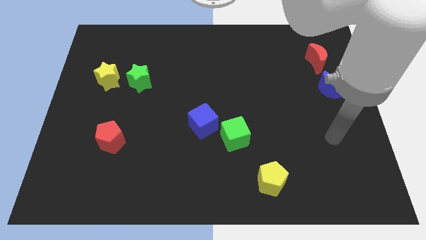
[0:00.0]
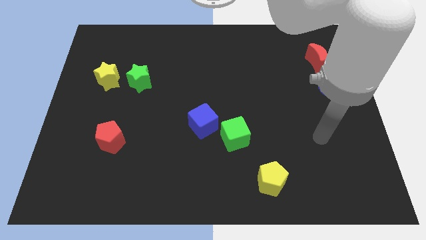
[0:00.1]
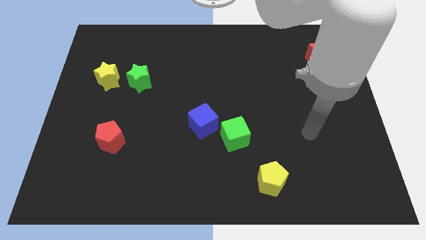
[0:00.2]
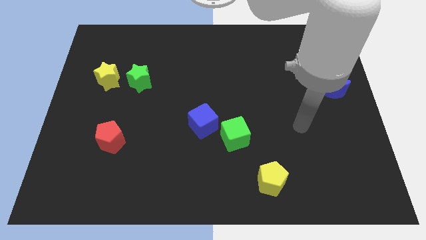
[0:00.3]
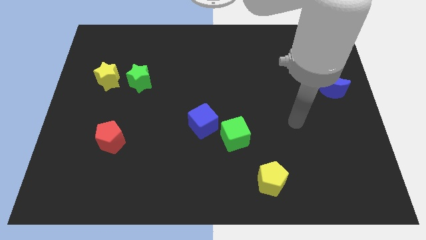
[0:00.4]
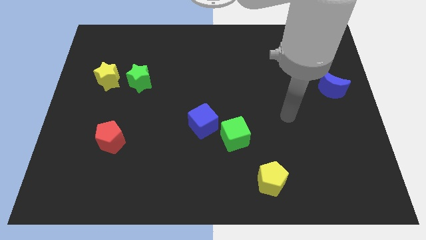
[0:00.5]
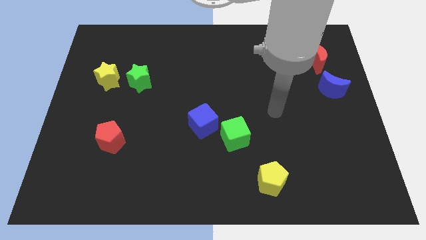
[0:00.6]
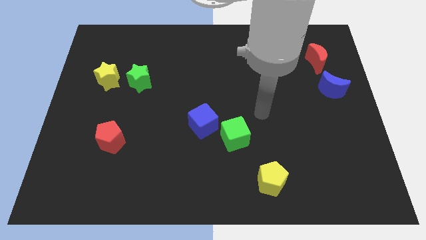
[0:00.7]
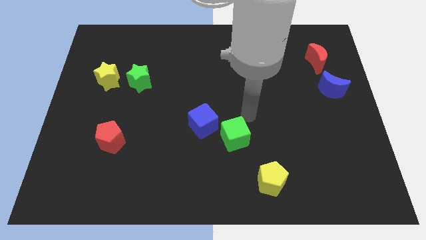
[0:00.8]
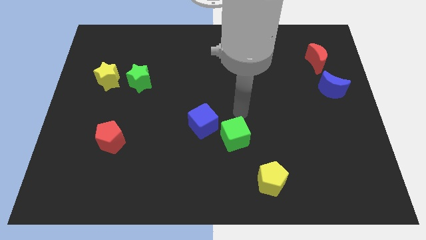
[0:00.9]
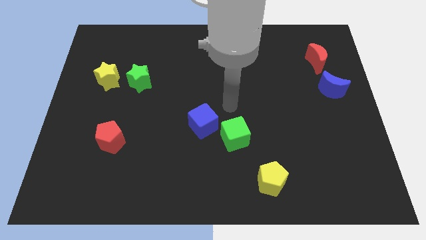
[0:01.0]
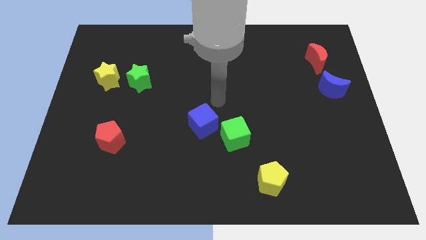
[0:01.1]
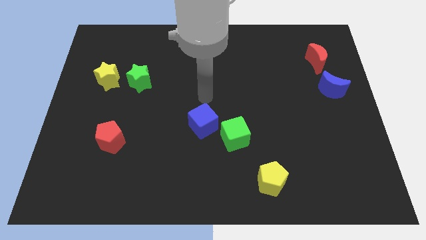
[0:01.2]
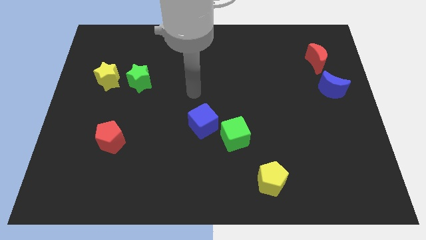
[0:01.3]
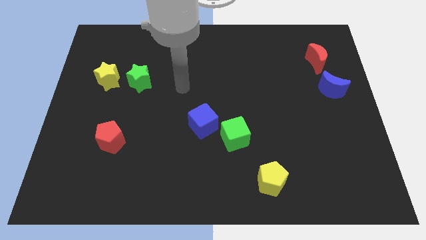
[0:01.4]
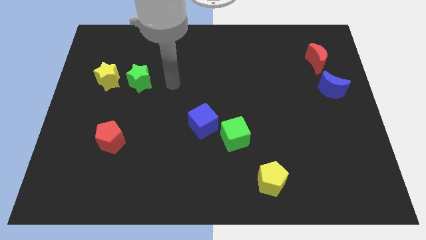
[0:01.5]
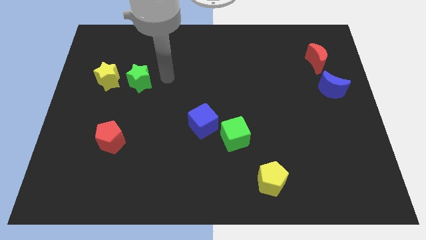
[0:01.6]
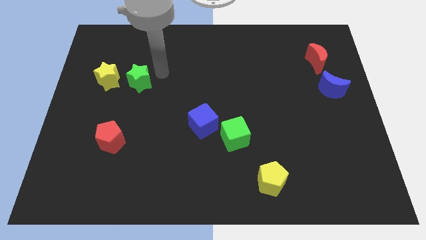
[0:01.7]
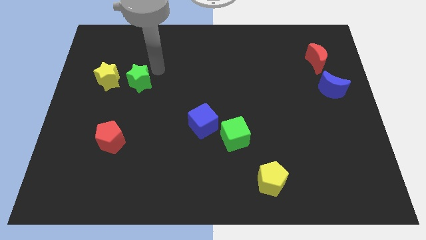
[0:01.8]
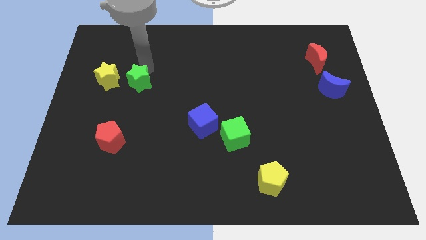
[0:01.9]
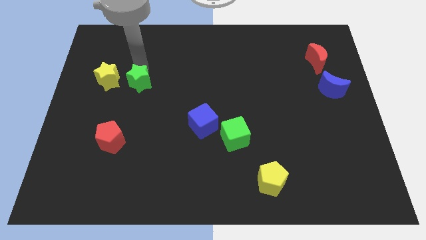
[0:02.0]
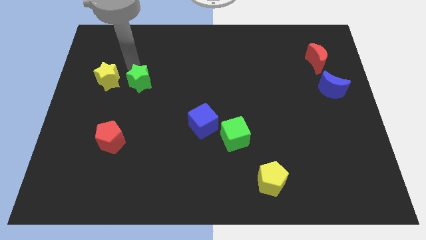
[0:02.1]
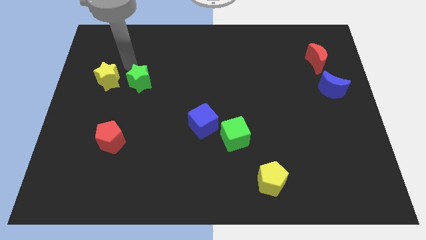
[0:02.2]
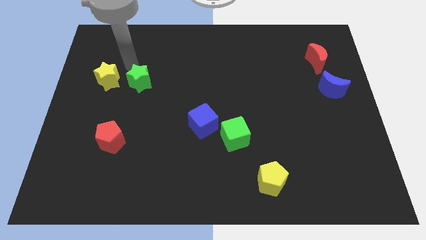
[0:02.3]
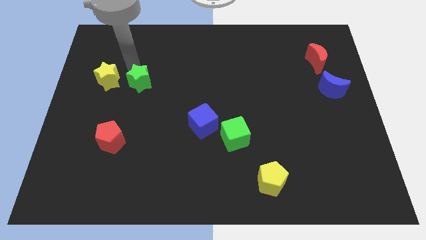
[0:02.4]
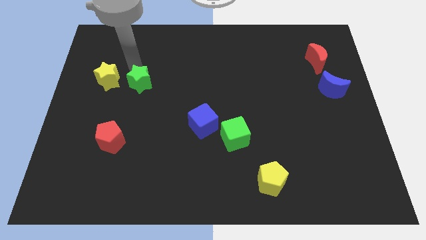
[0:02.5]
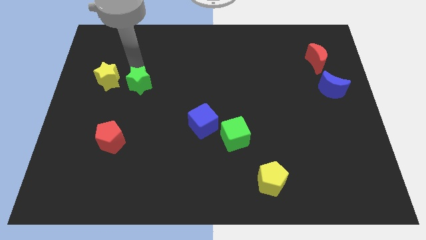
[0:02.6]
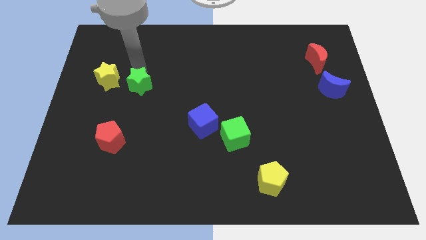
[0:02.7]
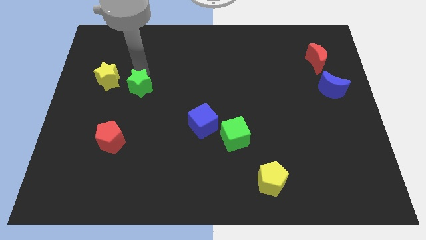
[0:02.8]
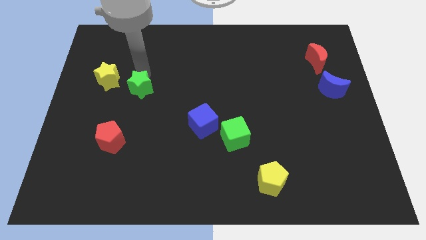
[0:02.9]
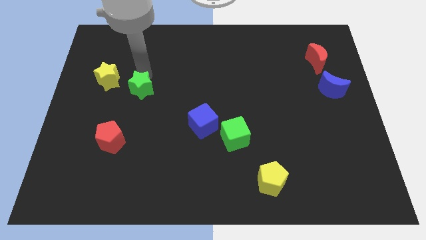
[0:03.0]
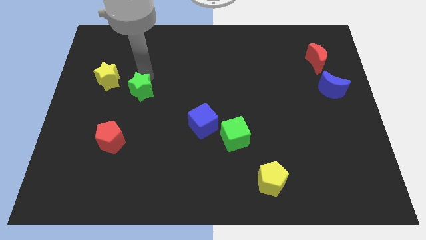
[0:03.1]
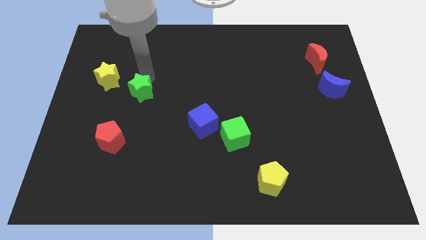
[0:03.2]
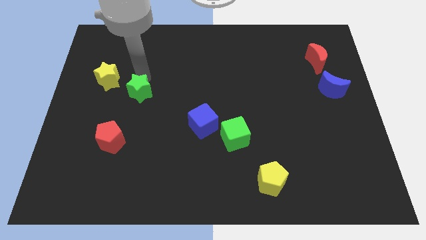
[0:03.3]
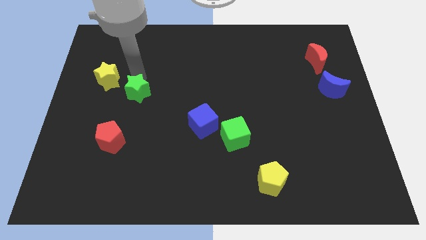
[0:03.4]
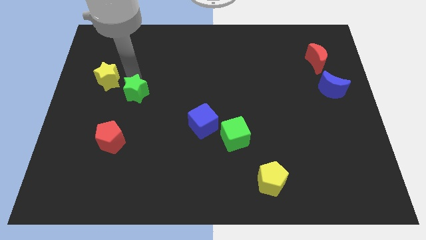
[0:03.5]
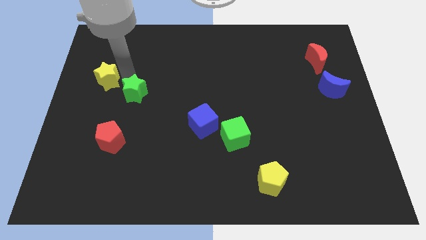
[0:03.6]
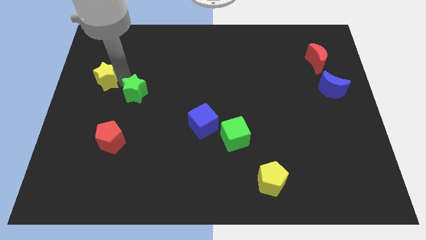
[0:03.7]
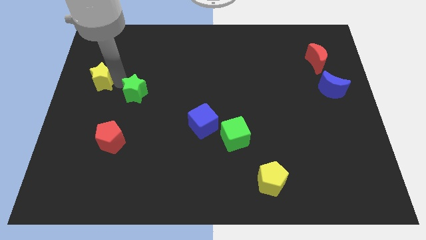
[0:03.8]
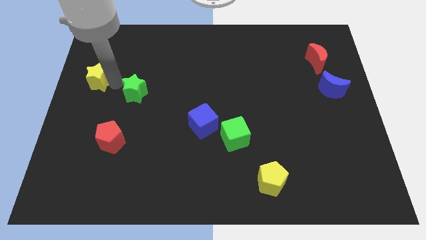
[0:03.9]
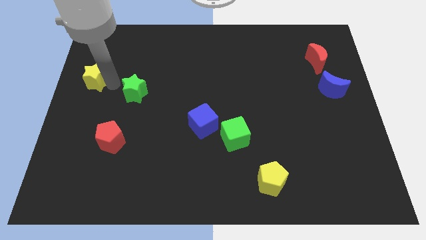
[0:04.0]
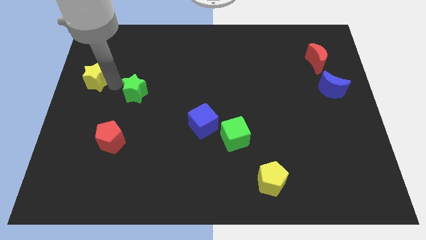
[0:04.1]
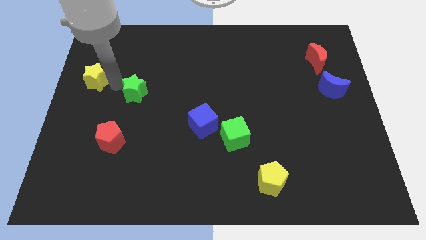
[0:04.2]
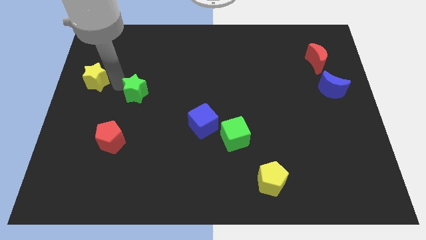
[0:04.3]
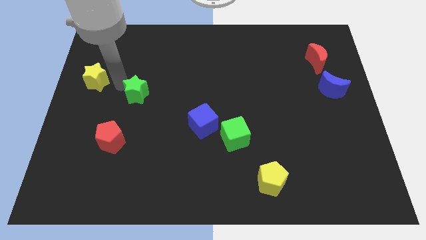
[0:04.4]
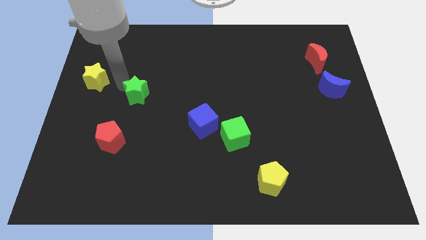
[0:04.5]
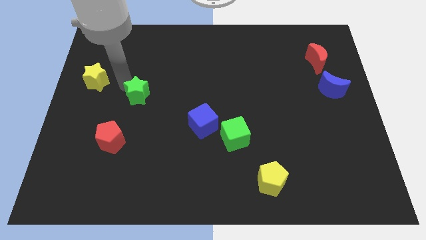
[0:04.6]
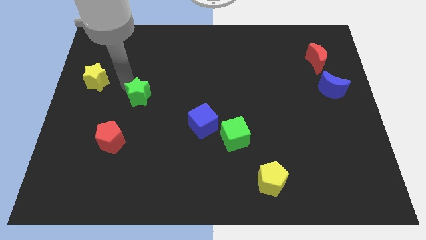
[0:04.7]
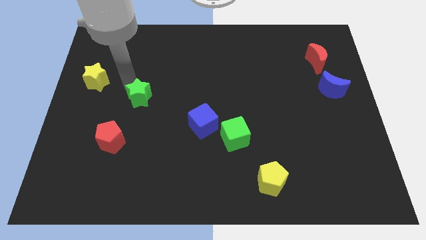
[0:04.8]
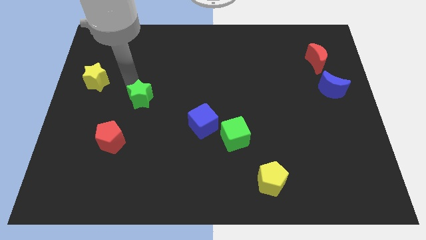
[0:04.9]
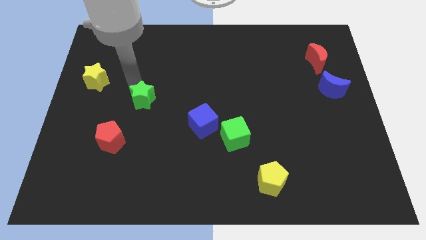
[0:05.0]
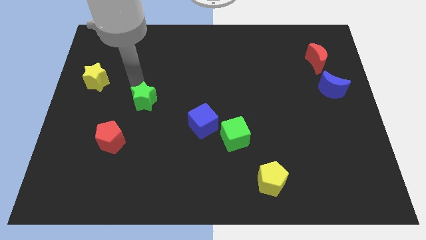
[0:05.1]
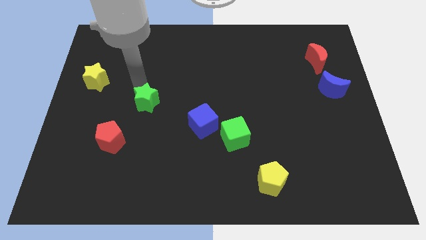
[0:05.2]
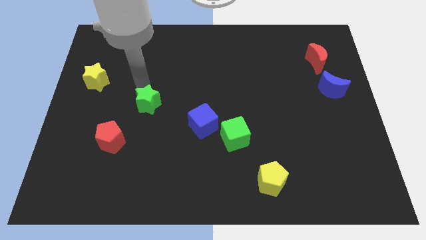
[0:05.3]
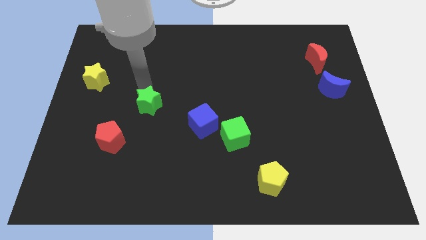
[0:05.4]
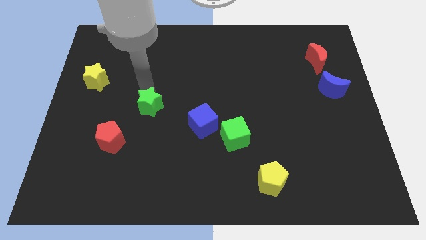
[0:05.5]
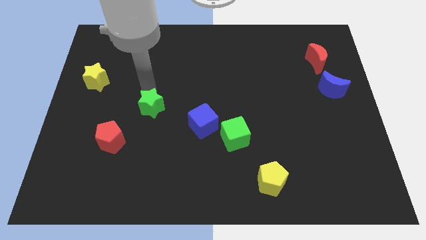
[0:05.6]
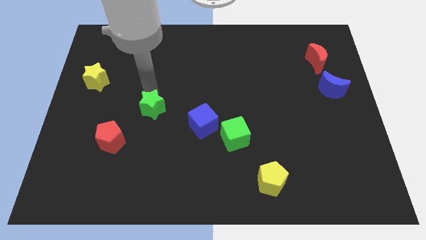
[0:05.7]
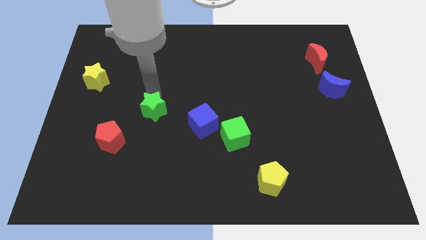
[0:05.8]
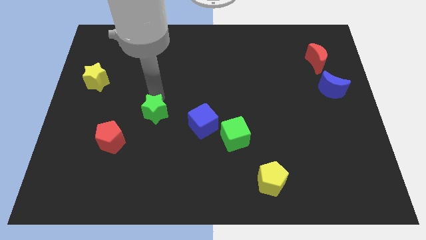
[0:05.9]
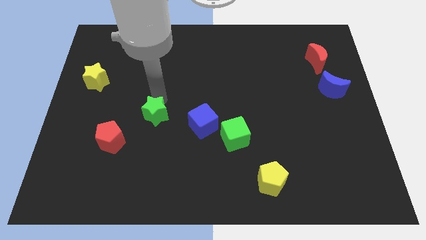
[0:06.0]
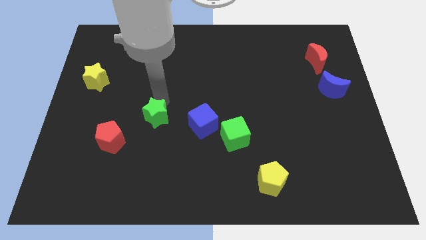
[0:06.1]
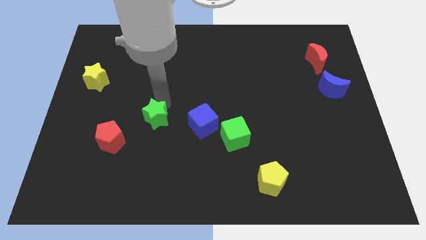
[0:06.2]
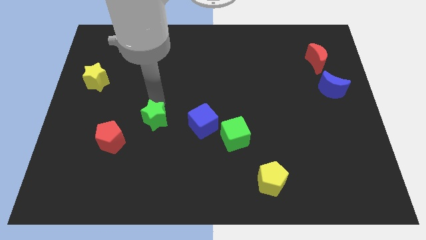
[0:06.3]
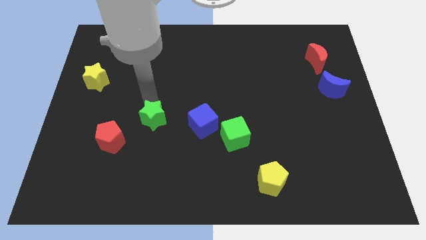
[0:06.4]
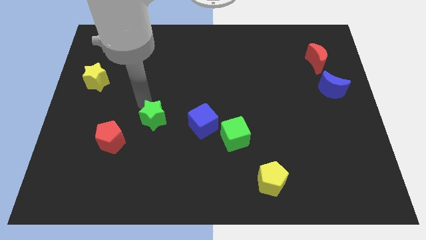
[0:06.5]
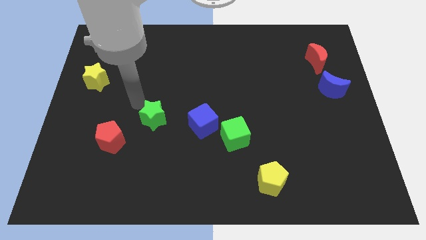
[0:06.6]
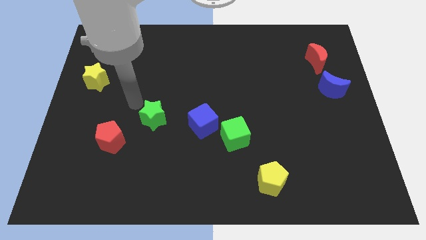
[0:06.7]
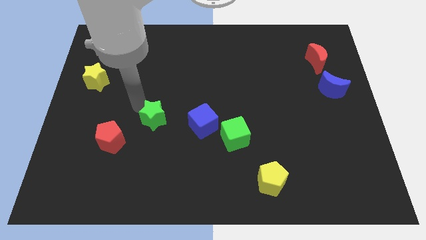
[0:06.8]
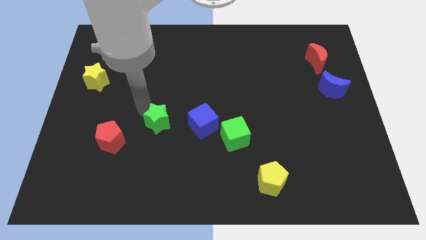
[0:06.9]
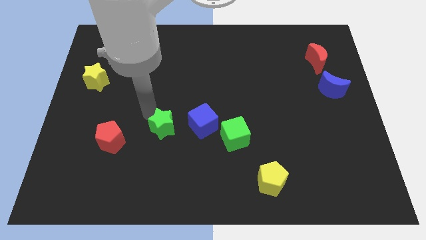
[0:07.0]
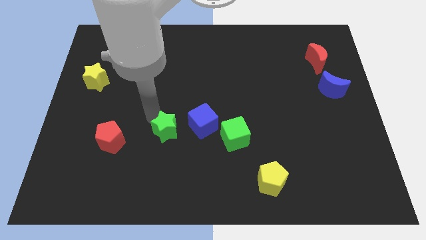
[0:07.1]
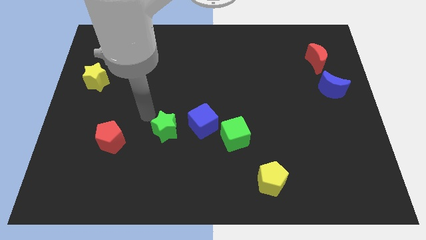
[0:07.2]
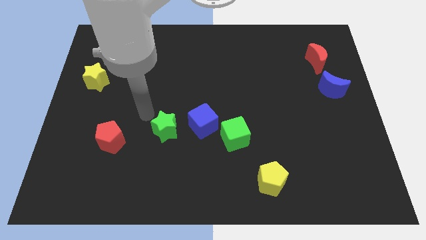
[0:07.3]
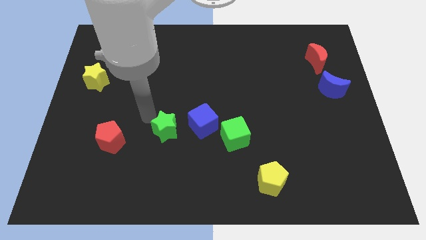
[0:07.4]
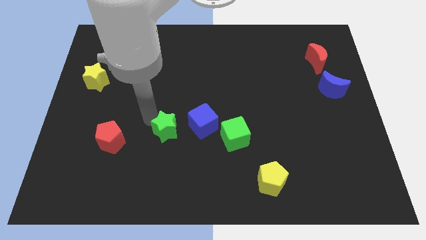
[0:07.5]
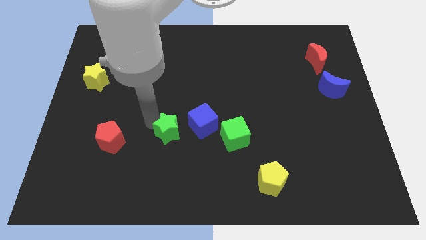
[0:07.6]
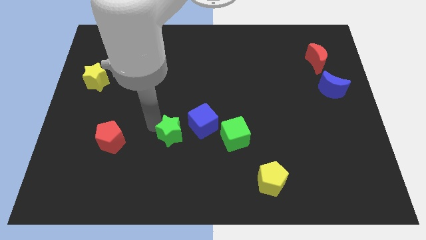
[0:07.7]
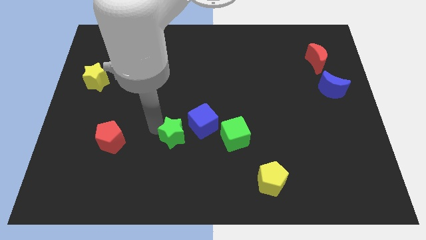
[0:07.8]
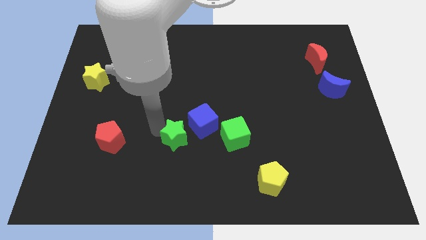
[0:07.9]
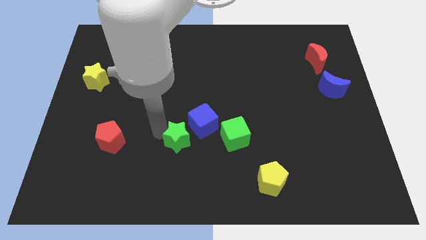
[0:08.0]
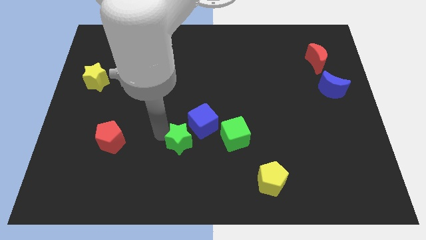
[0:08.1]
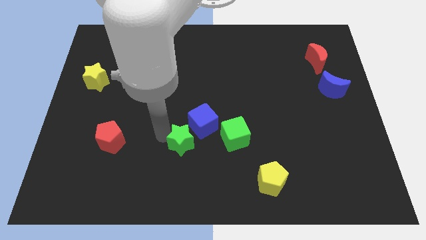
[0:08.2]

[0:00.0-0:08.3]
move the green star downwards and then to the right
